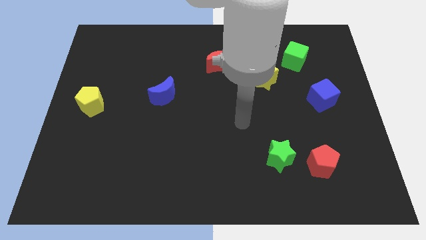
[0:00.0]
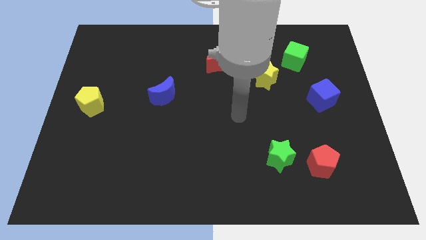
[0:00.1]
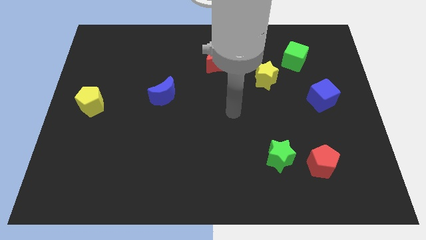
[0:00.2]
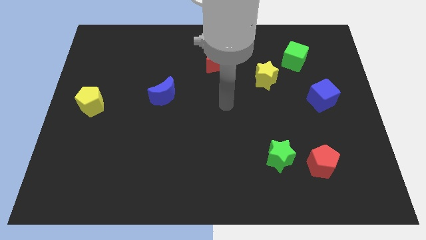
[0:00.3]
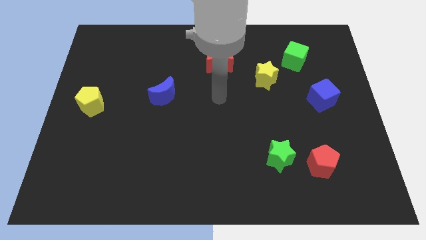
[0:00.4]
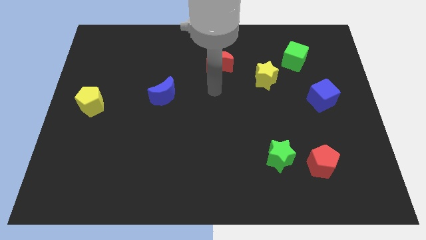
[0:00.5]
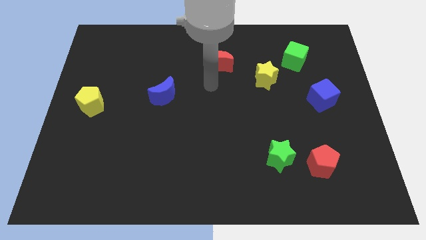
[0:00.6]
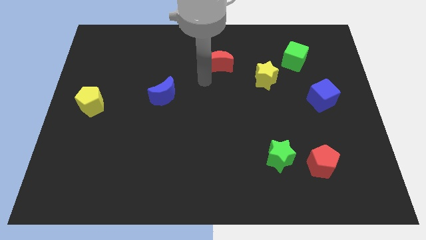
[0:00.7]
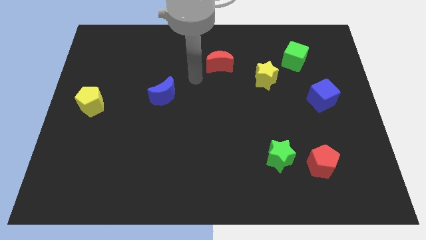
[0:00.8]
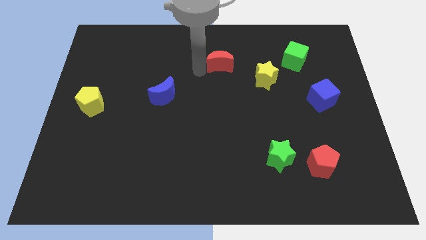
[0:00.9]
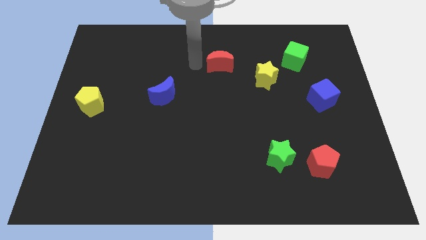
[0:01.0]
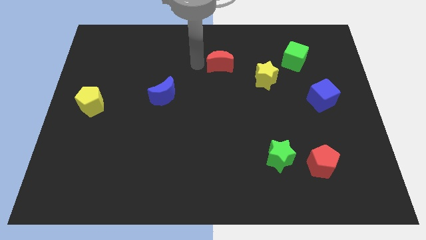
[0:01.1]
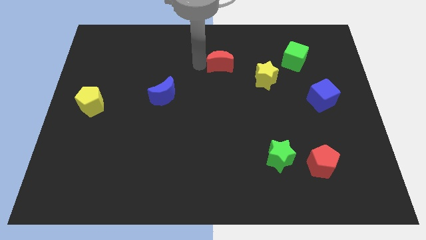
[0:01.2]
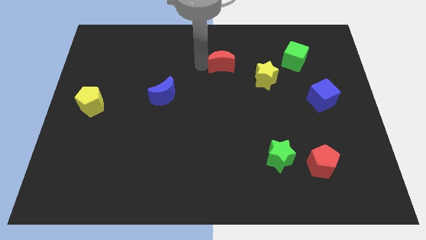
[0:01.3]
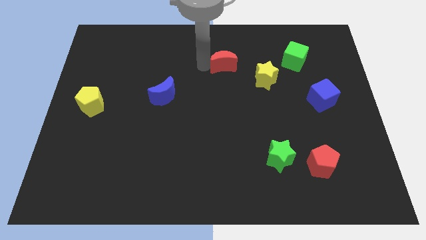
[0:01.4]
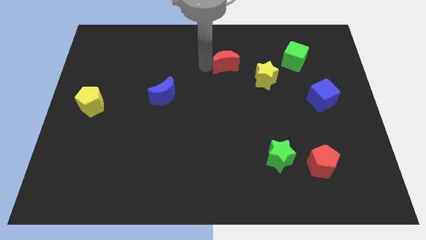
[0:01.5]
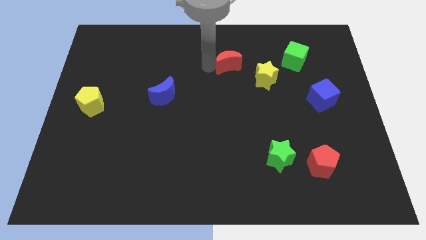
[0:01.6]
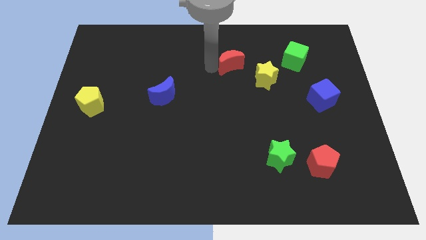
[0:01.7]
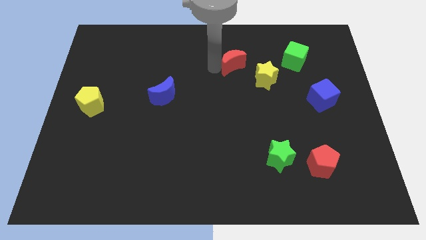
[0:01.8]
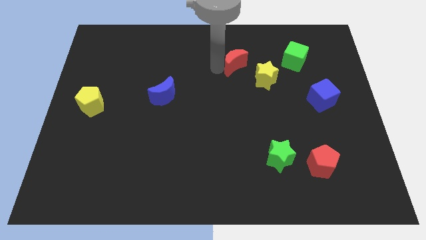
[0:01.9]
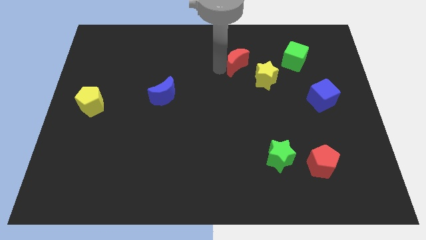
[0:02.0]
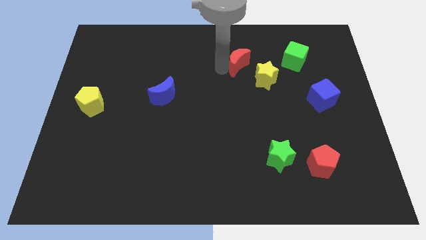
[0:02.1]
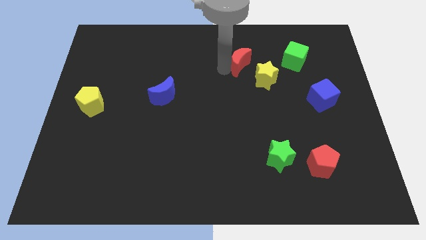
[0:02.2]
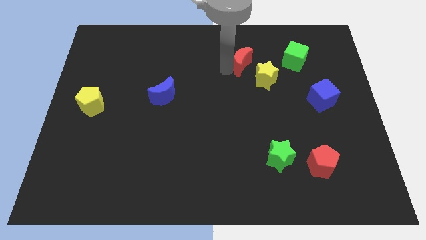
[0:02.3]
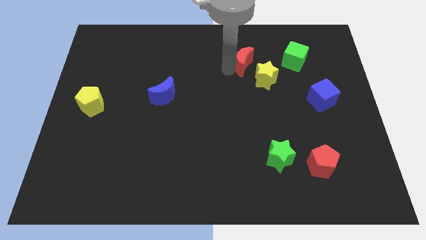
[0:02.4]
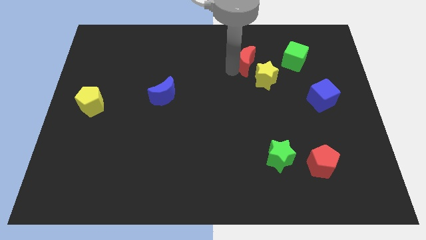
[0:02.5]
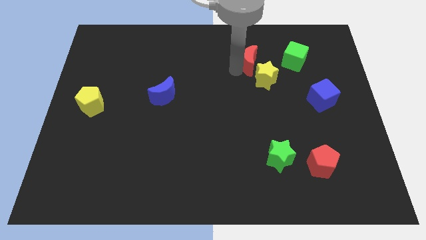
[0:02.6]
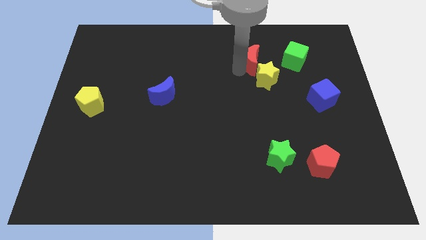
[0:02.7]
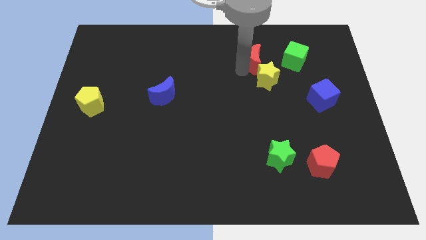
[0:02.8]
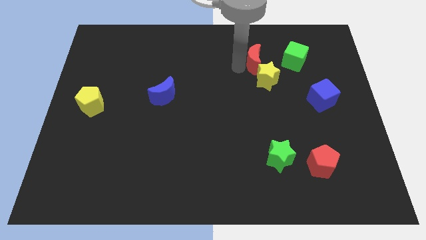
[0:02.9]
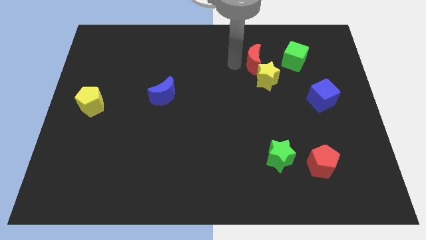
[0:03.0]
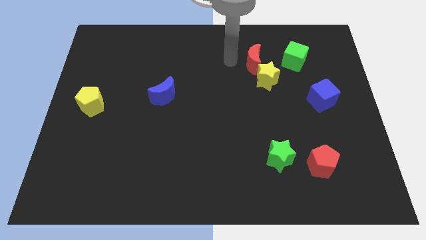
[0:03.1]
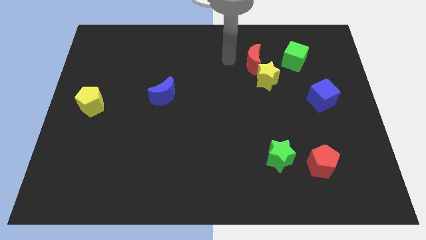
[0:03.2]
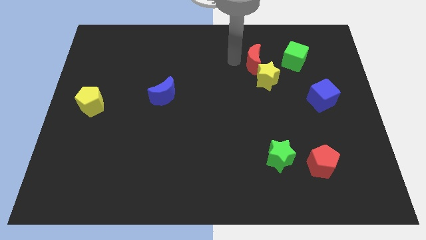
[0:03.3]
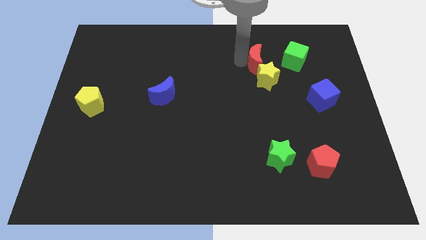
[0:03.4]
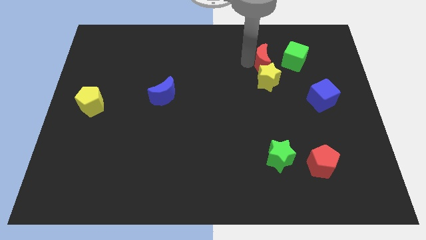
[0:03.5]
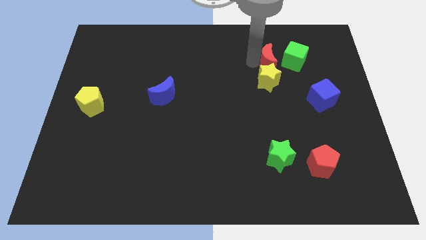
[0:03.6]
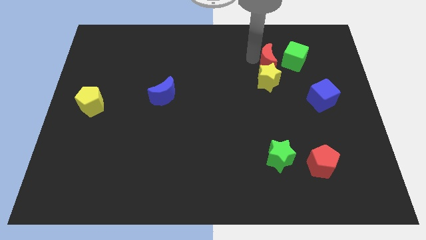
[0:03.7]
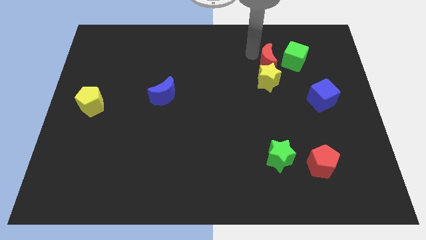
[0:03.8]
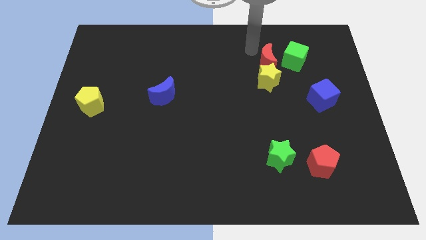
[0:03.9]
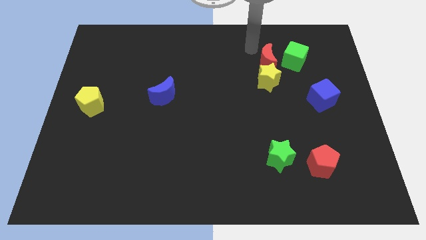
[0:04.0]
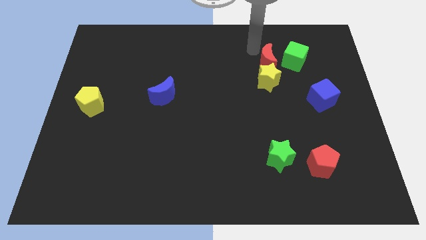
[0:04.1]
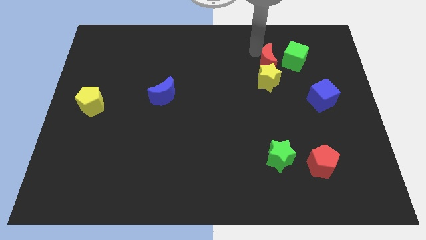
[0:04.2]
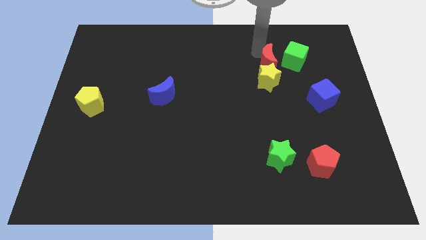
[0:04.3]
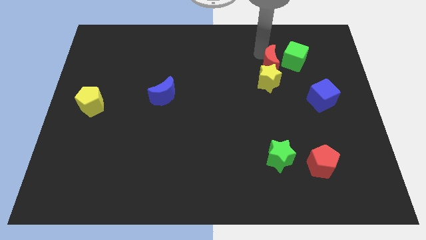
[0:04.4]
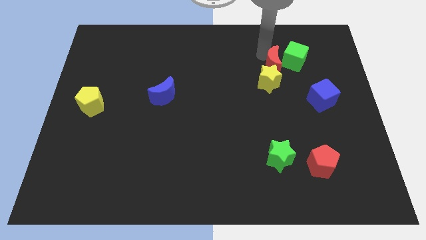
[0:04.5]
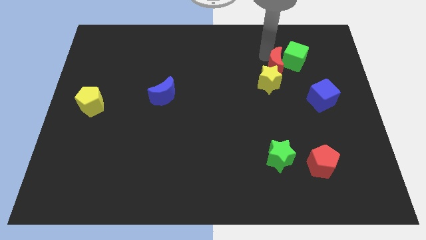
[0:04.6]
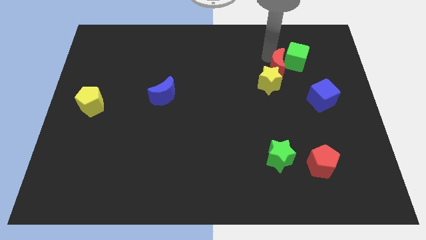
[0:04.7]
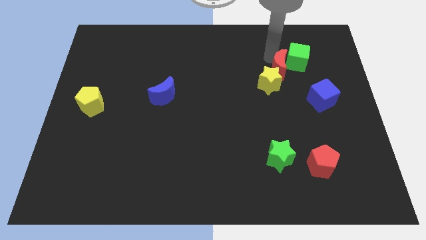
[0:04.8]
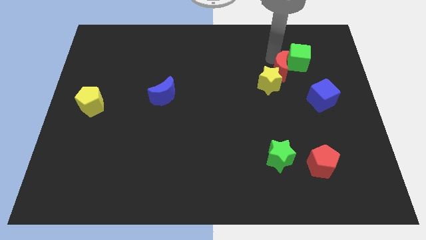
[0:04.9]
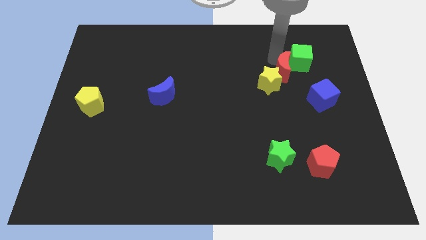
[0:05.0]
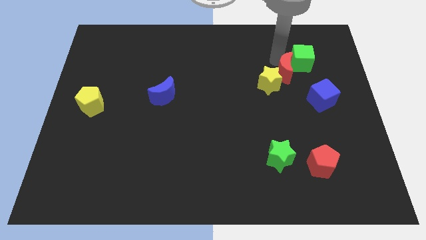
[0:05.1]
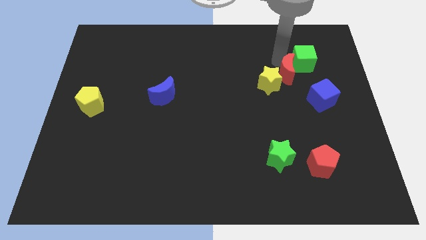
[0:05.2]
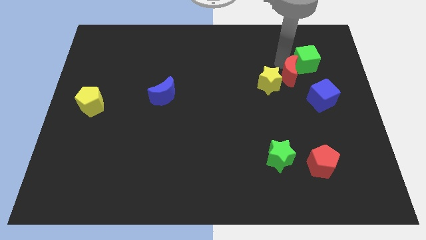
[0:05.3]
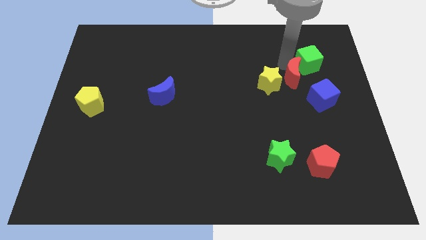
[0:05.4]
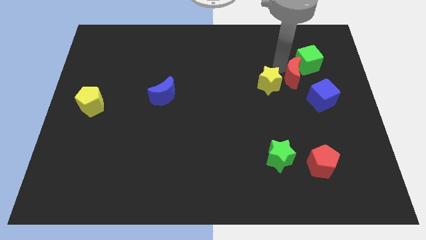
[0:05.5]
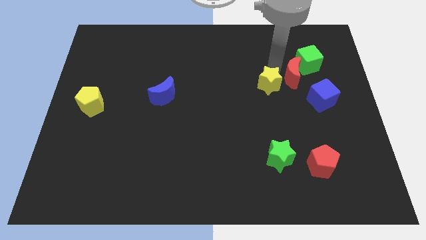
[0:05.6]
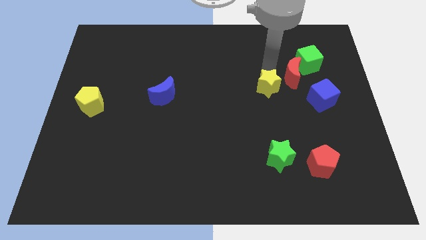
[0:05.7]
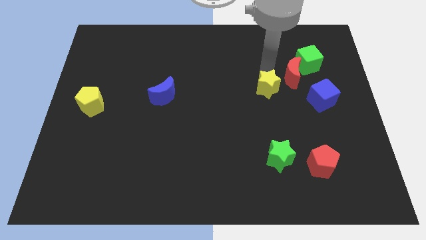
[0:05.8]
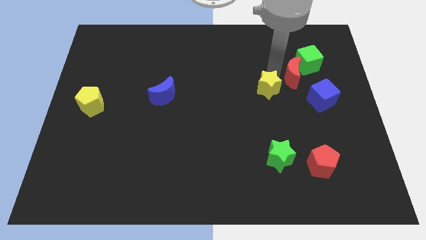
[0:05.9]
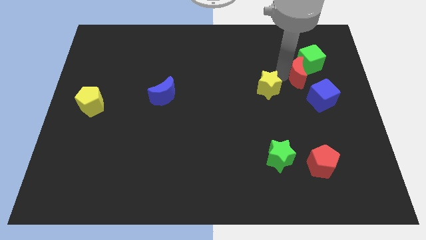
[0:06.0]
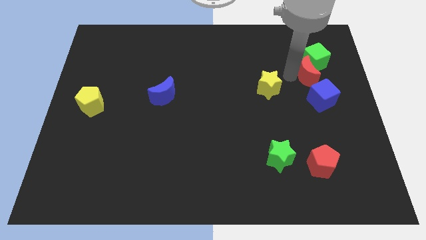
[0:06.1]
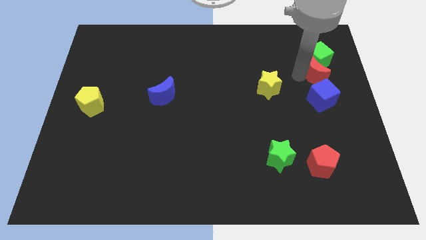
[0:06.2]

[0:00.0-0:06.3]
move the red moon to the bottom right of the green cube
